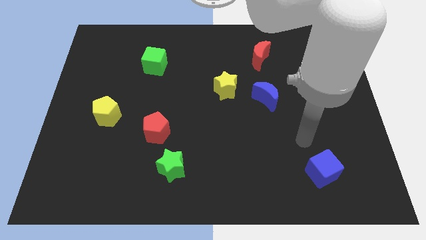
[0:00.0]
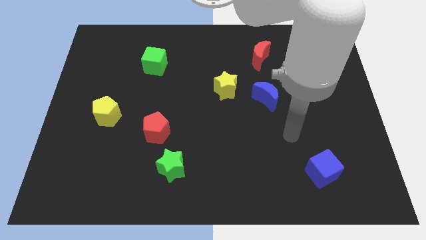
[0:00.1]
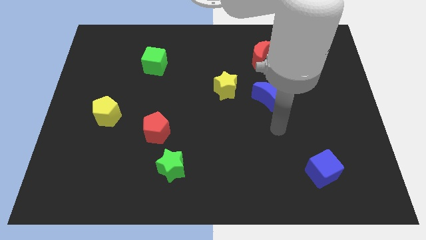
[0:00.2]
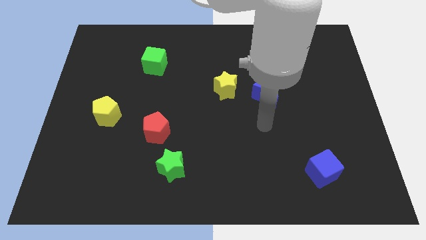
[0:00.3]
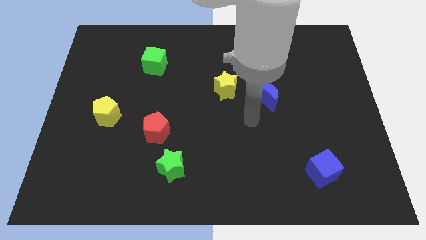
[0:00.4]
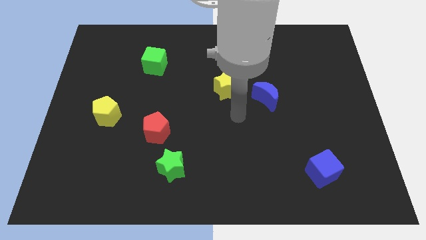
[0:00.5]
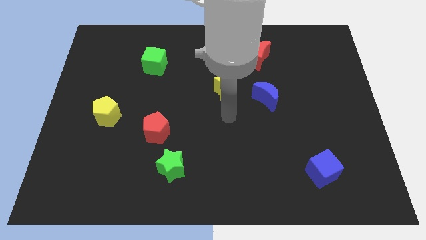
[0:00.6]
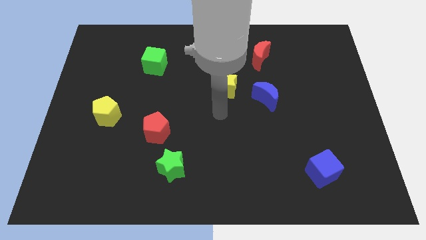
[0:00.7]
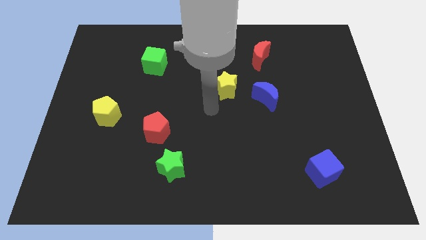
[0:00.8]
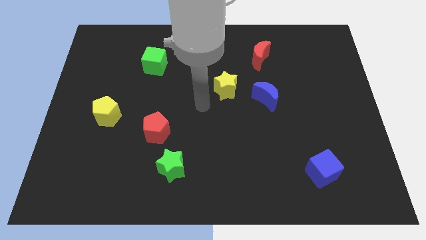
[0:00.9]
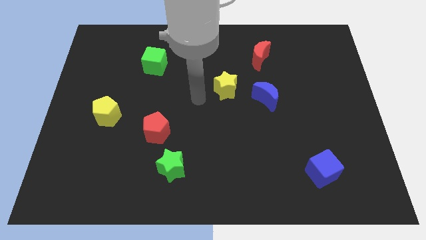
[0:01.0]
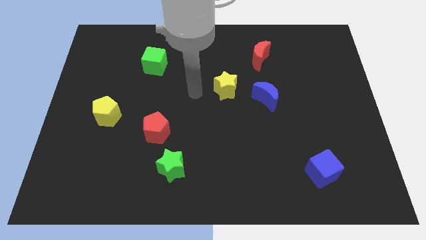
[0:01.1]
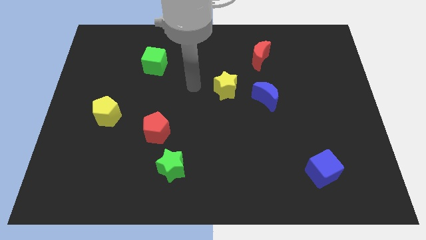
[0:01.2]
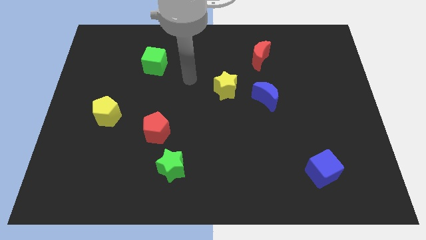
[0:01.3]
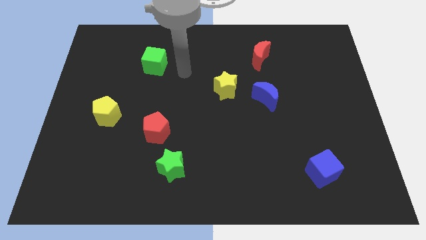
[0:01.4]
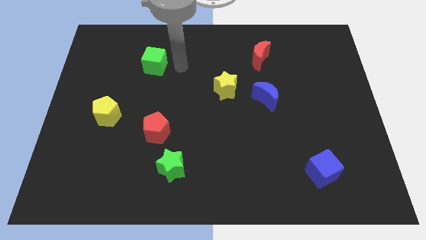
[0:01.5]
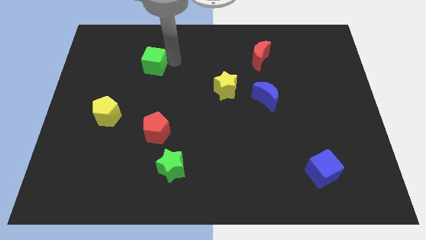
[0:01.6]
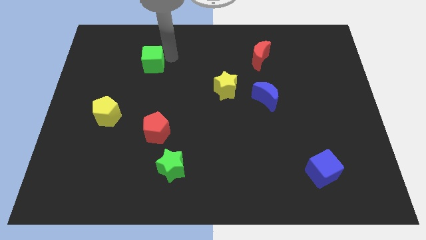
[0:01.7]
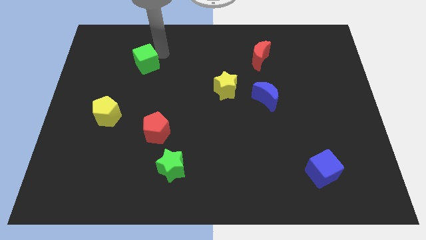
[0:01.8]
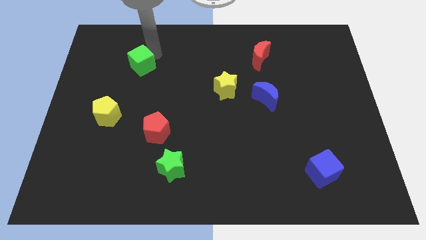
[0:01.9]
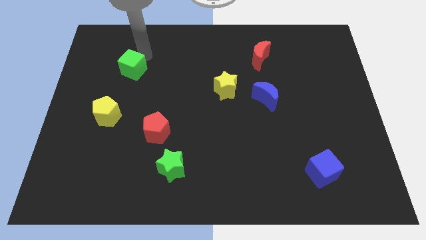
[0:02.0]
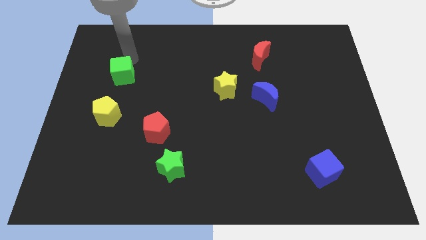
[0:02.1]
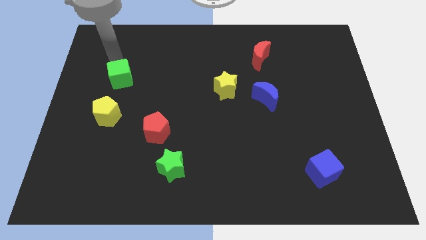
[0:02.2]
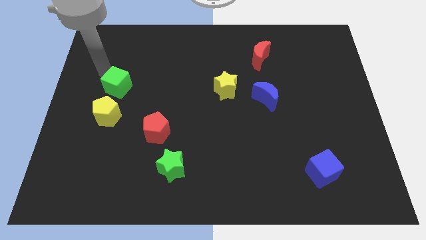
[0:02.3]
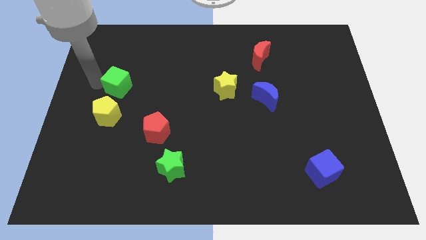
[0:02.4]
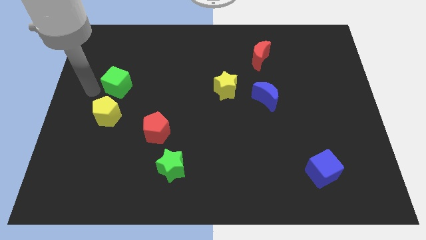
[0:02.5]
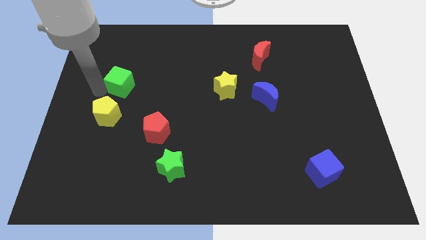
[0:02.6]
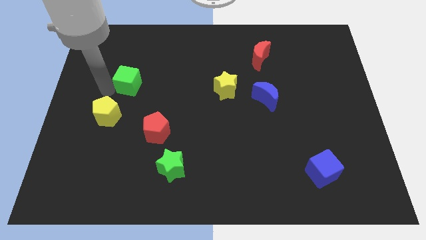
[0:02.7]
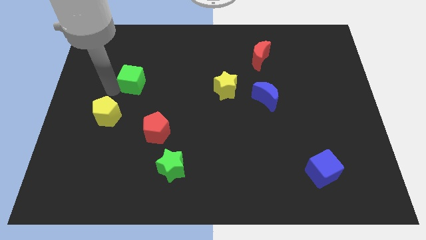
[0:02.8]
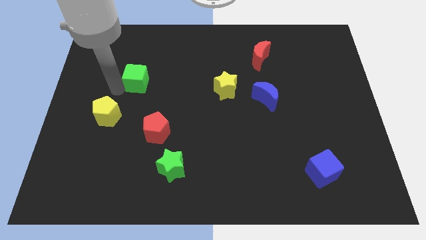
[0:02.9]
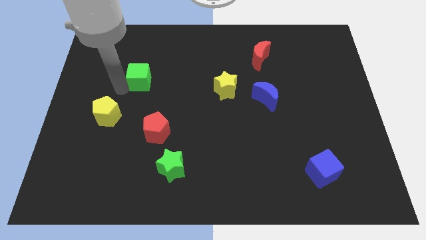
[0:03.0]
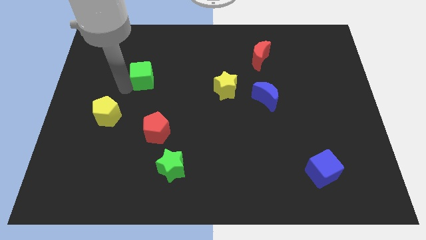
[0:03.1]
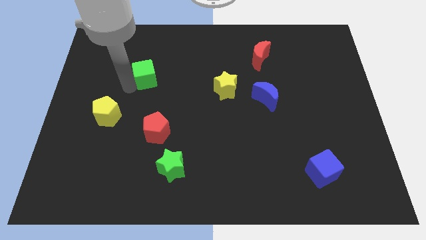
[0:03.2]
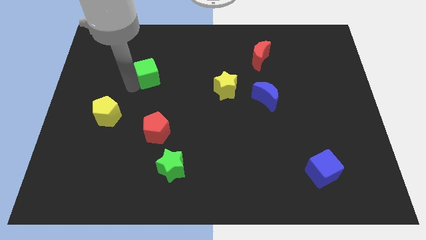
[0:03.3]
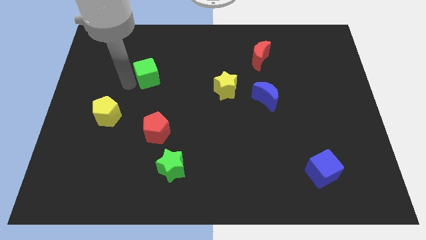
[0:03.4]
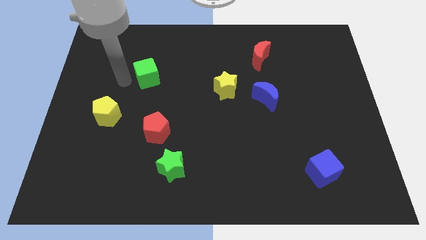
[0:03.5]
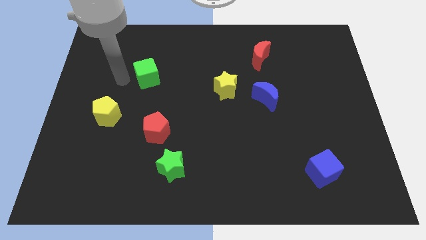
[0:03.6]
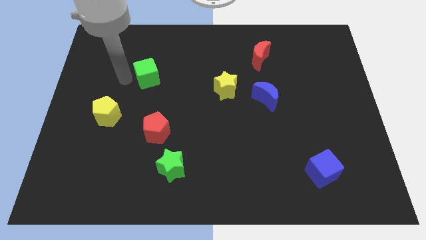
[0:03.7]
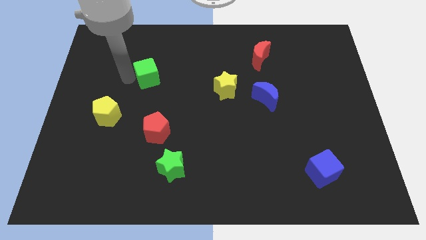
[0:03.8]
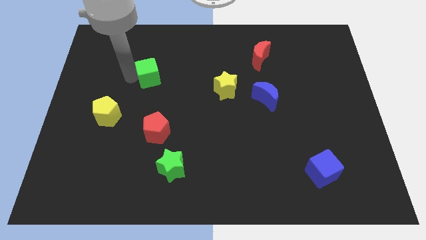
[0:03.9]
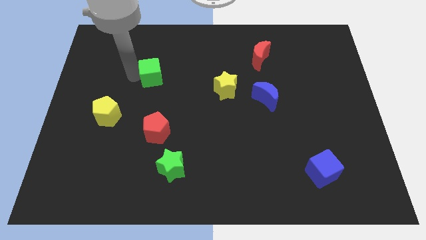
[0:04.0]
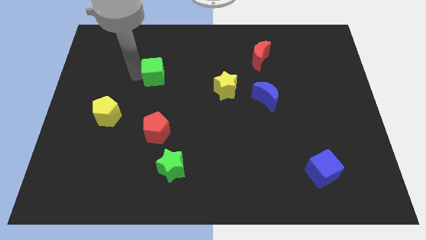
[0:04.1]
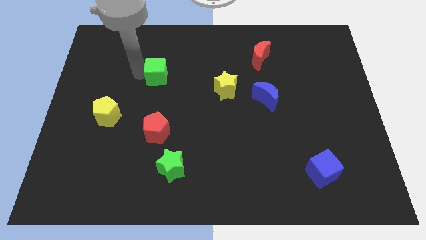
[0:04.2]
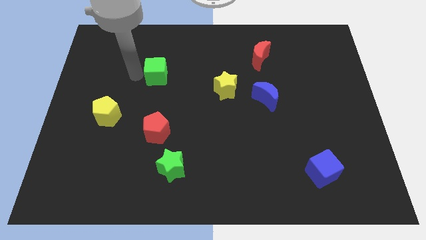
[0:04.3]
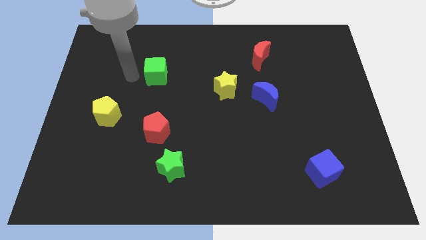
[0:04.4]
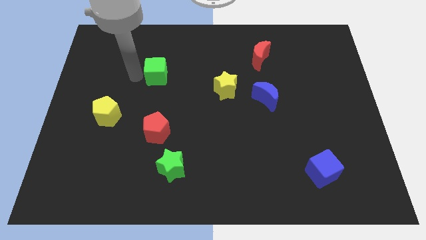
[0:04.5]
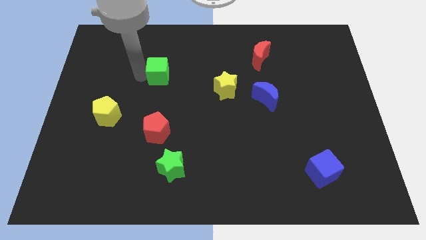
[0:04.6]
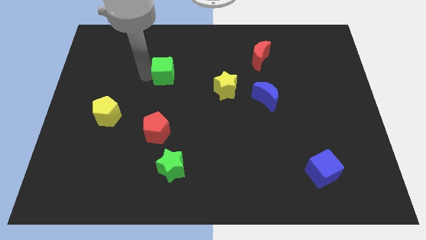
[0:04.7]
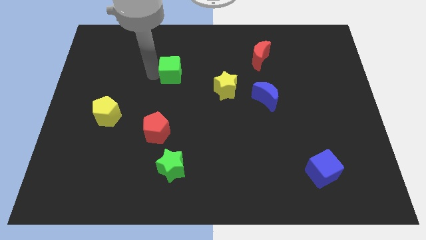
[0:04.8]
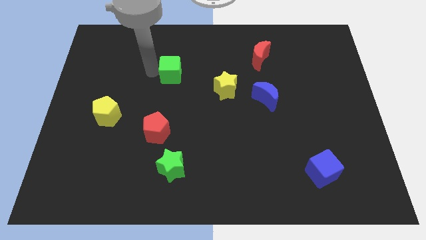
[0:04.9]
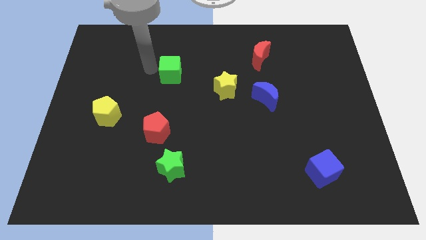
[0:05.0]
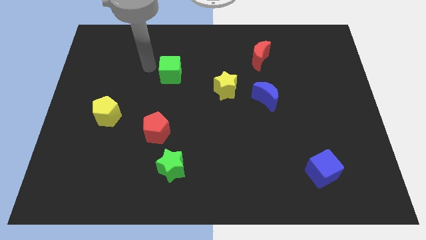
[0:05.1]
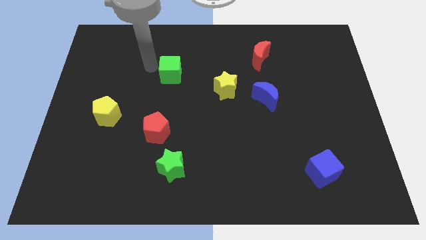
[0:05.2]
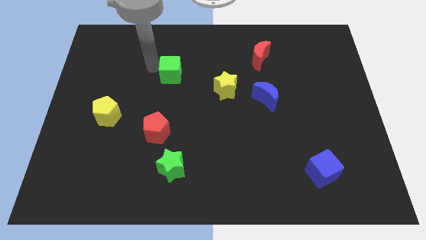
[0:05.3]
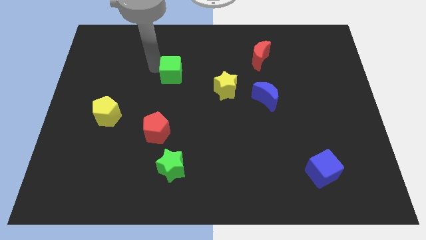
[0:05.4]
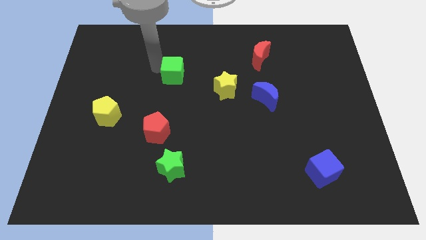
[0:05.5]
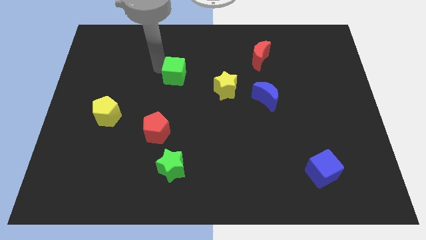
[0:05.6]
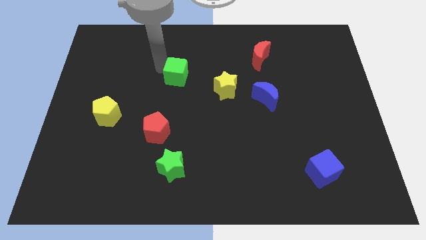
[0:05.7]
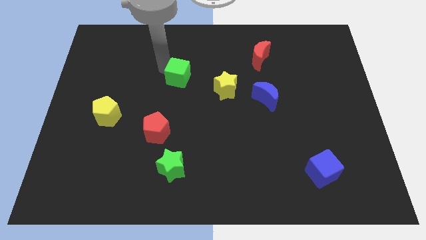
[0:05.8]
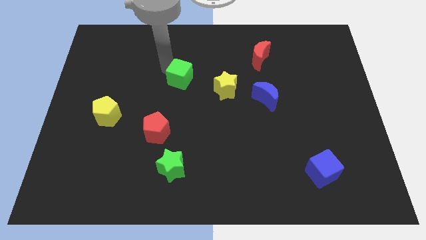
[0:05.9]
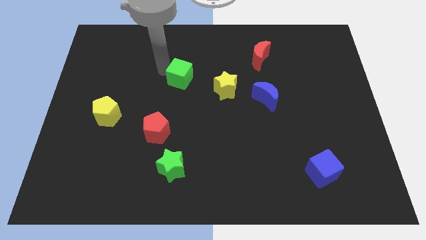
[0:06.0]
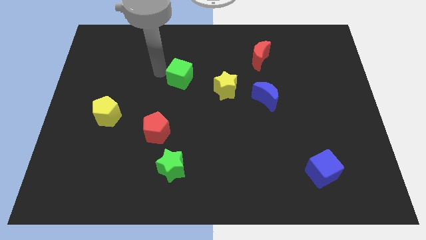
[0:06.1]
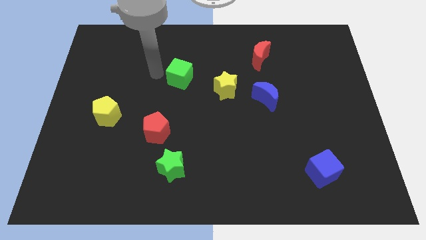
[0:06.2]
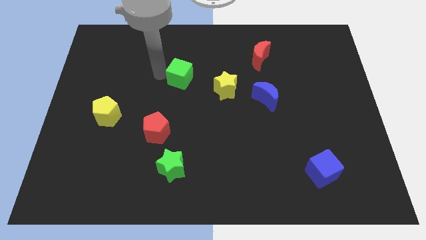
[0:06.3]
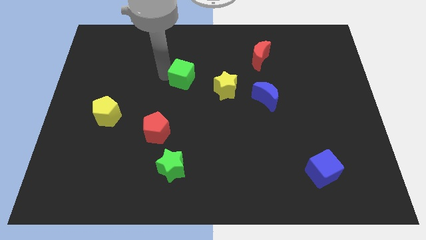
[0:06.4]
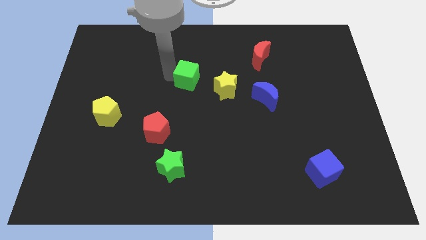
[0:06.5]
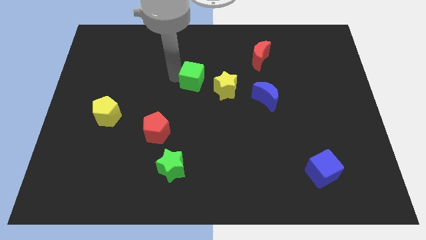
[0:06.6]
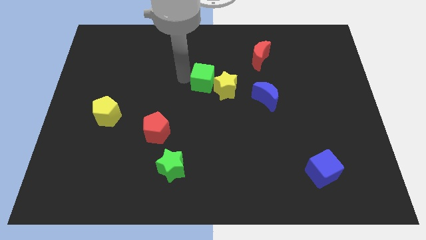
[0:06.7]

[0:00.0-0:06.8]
move the green cube close to the yellow star
